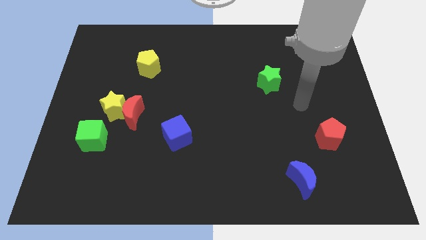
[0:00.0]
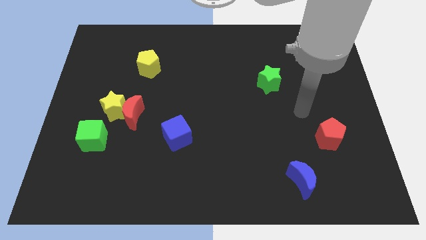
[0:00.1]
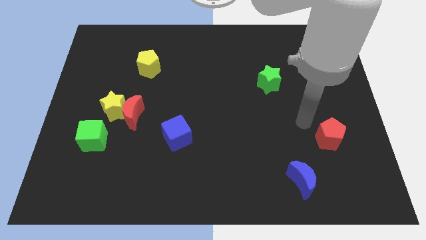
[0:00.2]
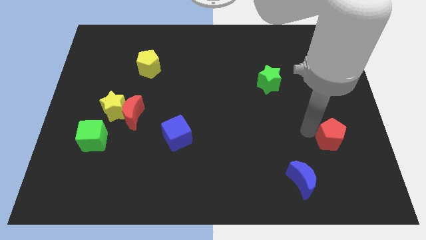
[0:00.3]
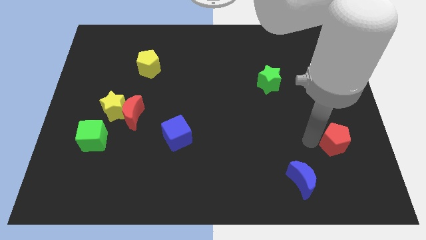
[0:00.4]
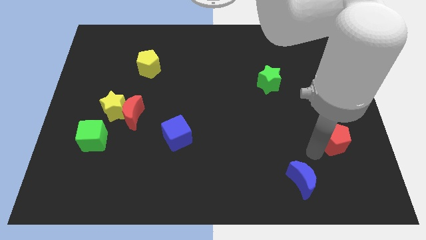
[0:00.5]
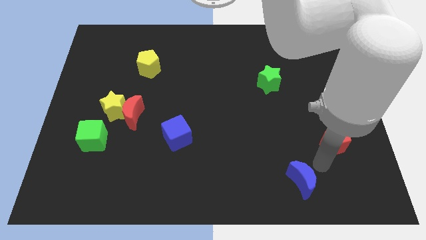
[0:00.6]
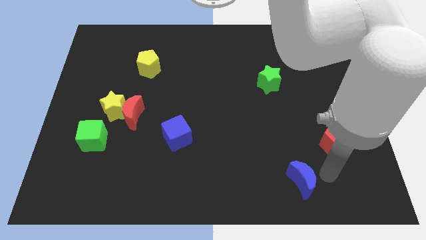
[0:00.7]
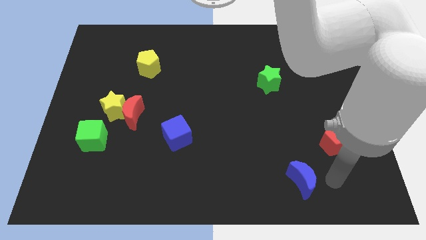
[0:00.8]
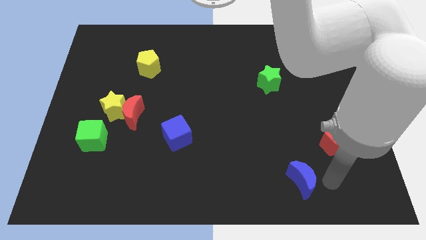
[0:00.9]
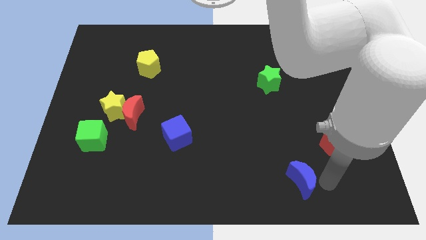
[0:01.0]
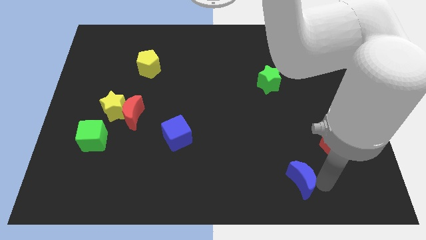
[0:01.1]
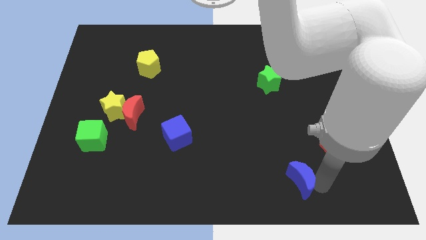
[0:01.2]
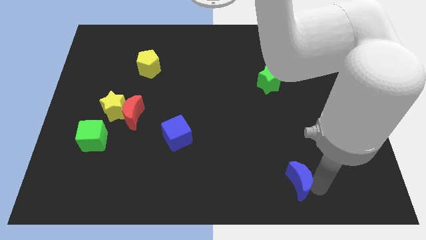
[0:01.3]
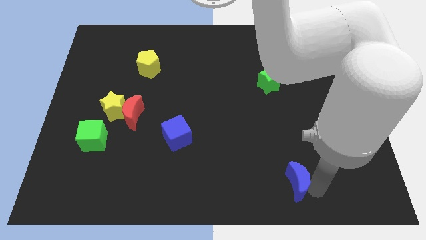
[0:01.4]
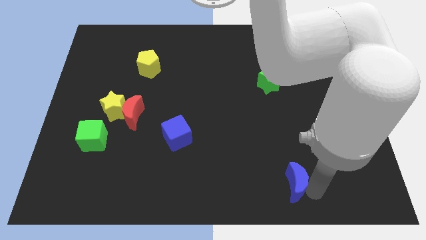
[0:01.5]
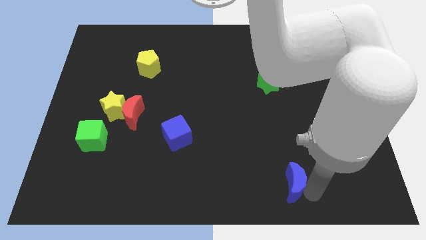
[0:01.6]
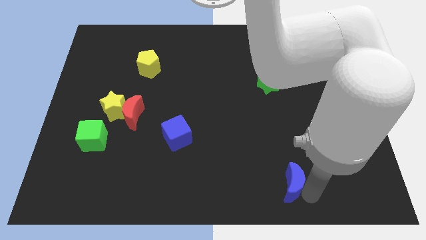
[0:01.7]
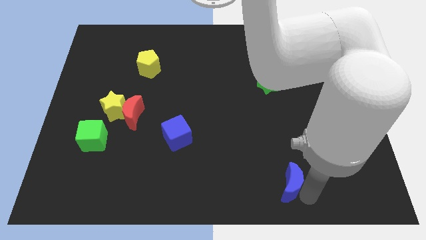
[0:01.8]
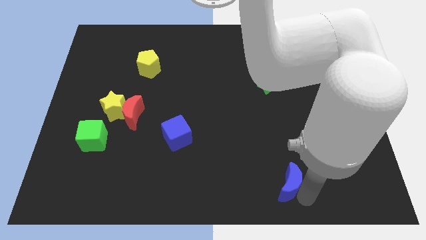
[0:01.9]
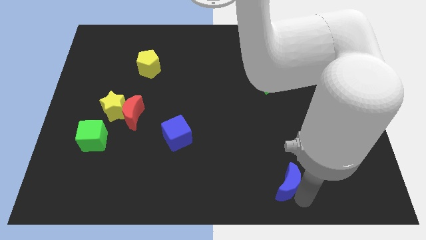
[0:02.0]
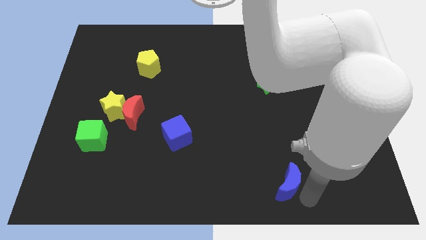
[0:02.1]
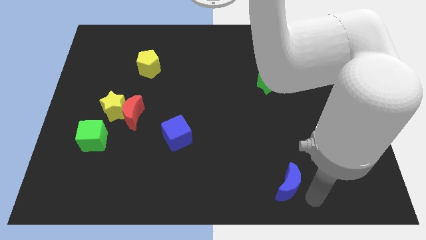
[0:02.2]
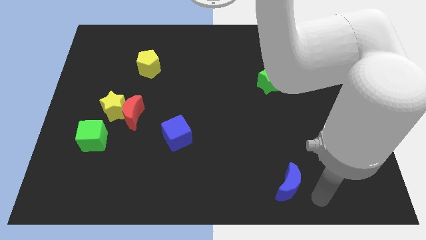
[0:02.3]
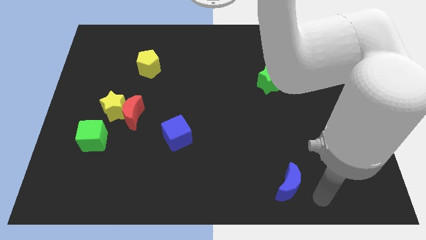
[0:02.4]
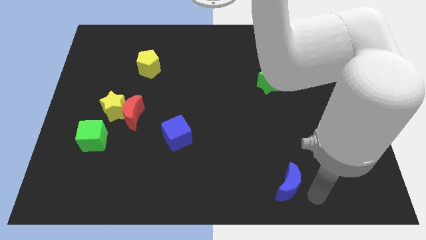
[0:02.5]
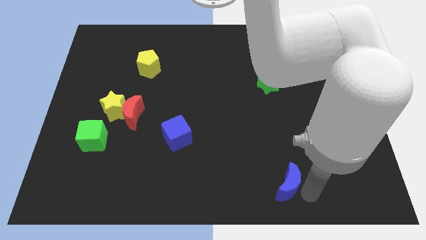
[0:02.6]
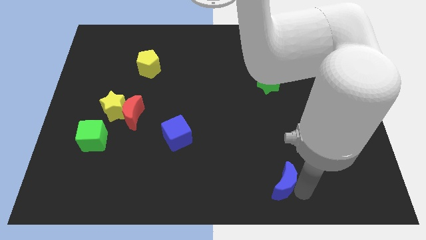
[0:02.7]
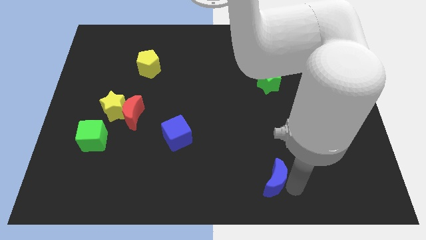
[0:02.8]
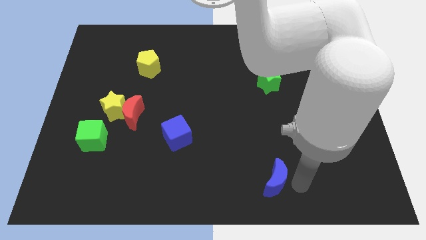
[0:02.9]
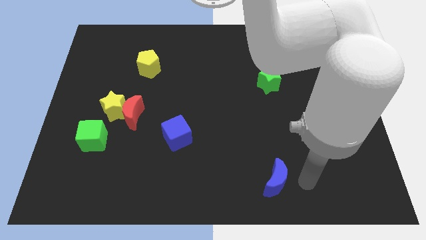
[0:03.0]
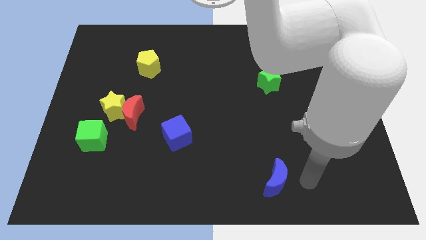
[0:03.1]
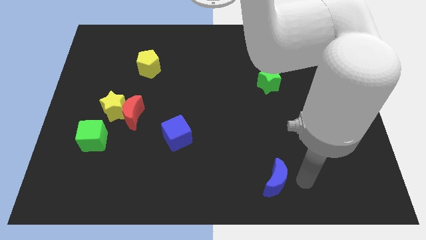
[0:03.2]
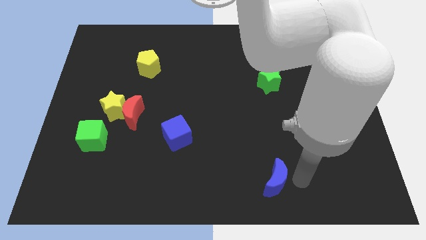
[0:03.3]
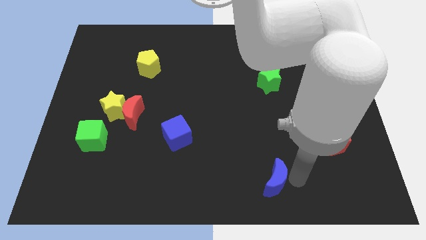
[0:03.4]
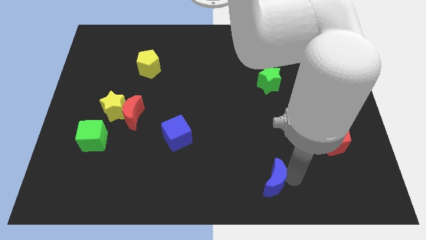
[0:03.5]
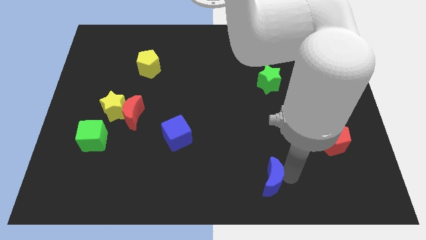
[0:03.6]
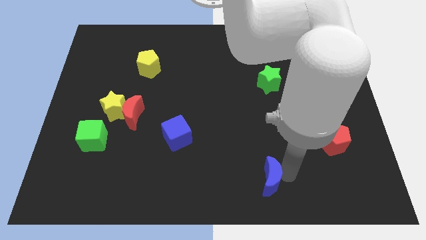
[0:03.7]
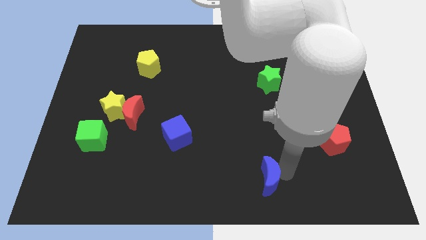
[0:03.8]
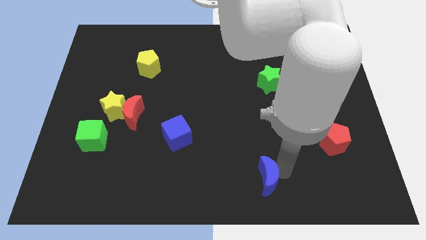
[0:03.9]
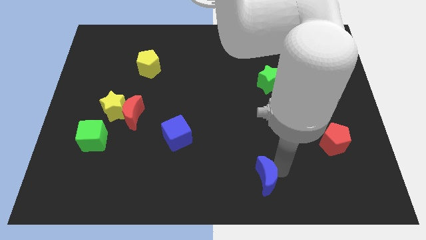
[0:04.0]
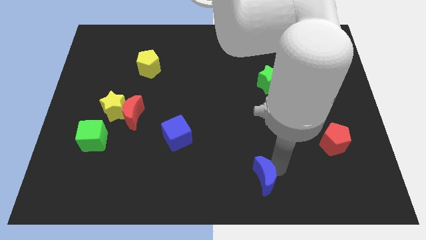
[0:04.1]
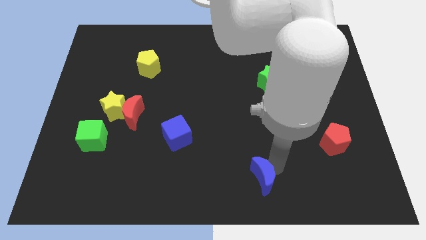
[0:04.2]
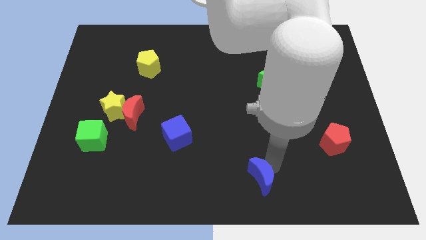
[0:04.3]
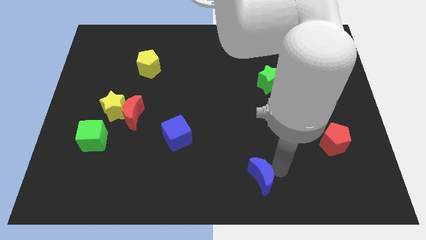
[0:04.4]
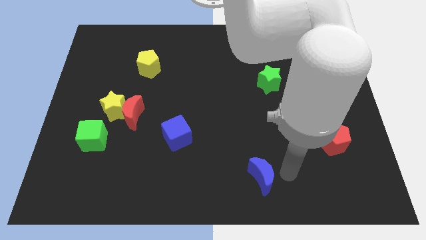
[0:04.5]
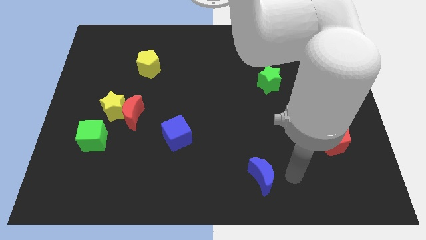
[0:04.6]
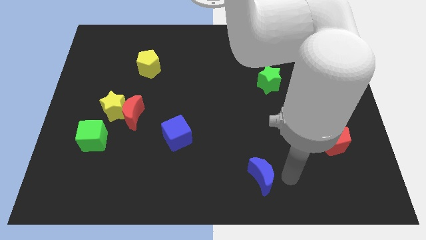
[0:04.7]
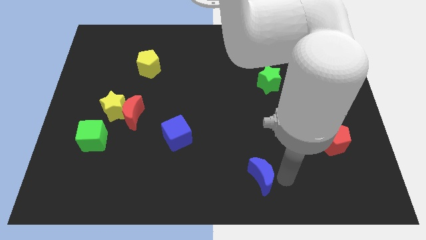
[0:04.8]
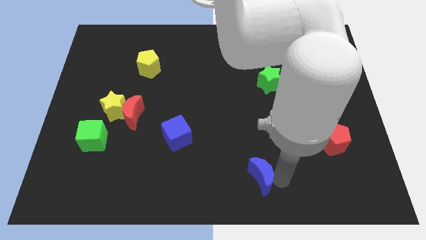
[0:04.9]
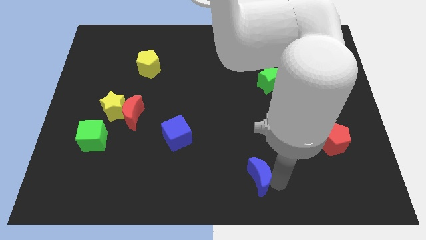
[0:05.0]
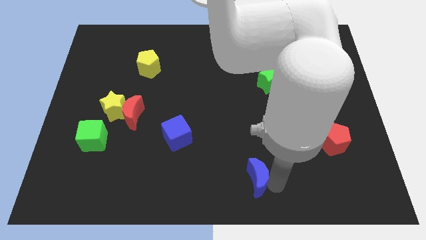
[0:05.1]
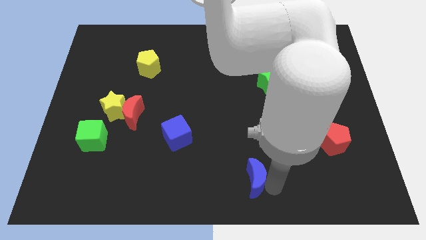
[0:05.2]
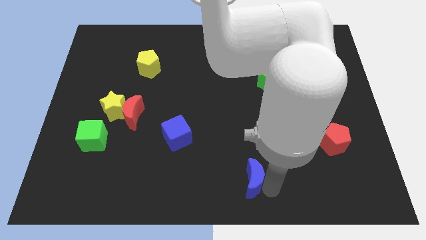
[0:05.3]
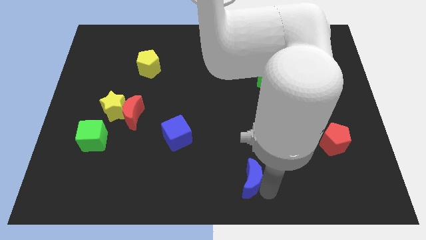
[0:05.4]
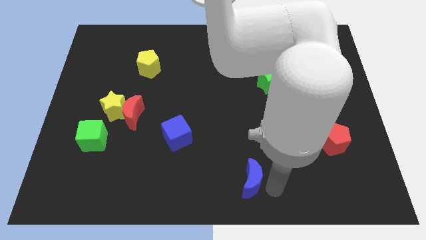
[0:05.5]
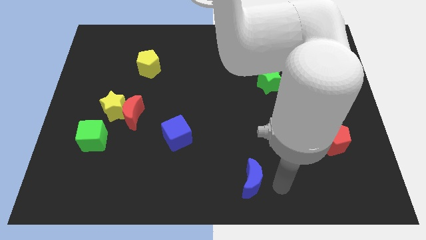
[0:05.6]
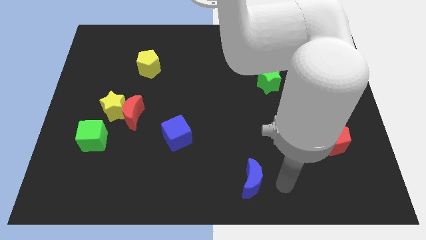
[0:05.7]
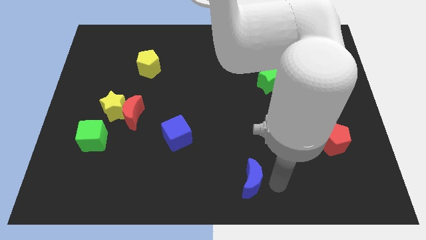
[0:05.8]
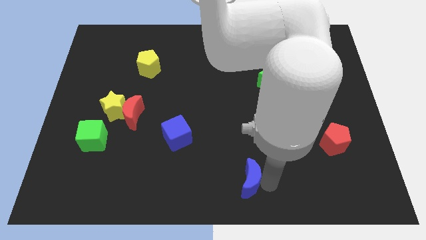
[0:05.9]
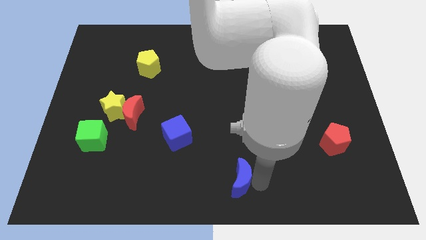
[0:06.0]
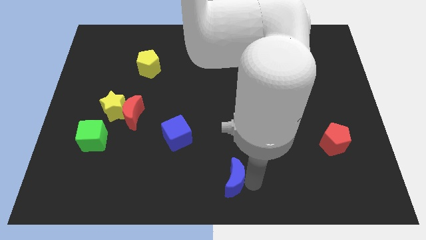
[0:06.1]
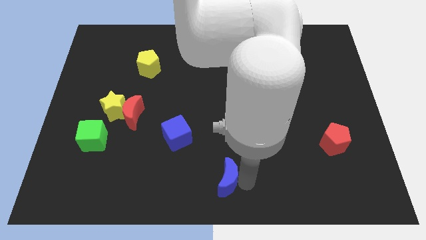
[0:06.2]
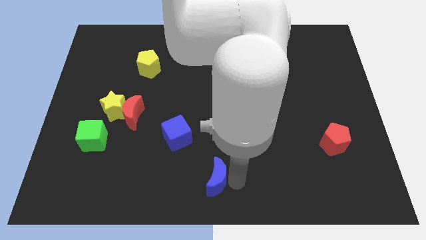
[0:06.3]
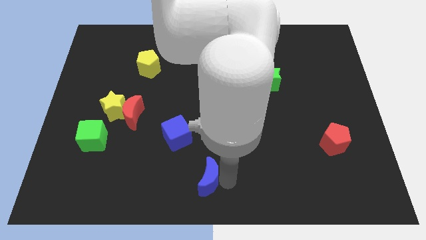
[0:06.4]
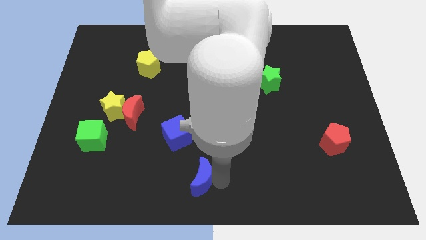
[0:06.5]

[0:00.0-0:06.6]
push the blue moon left

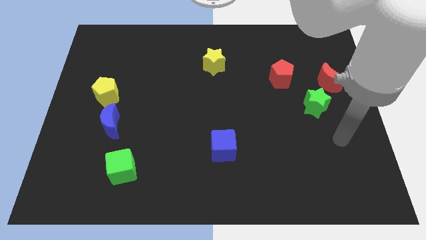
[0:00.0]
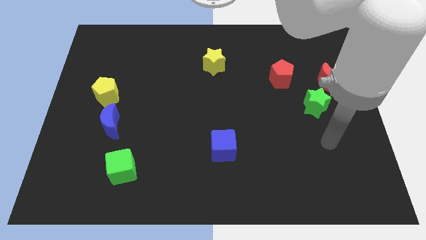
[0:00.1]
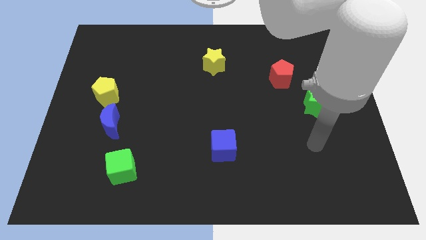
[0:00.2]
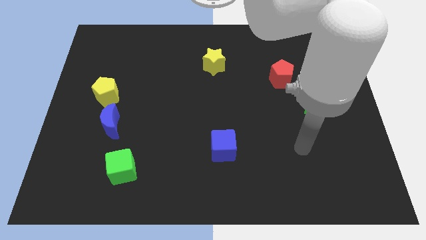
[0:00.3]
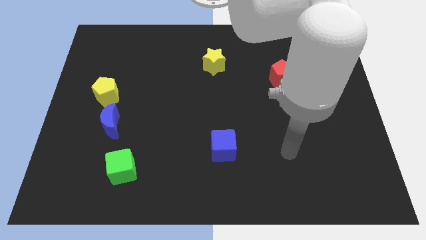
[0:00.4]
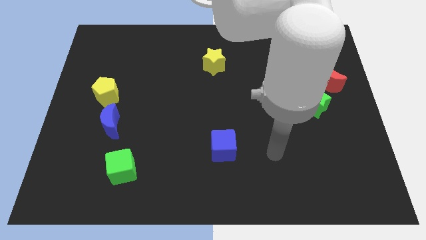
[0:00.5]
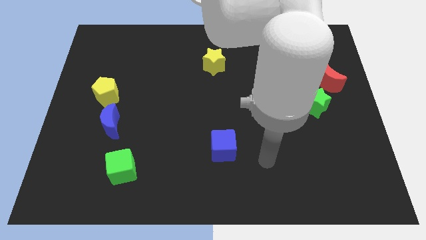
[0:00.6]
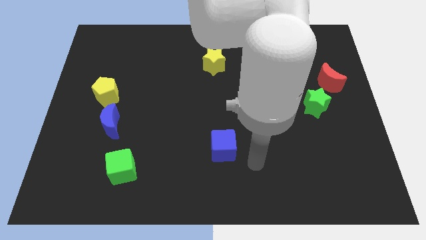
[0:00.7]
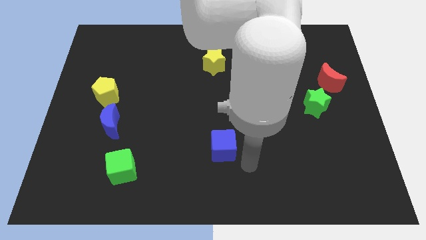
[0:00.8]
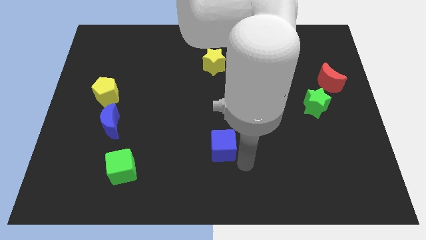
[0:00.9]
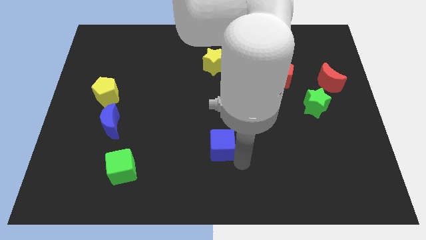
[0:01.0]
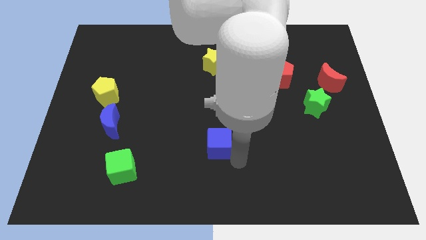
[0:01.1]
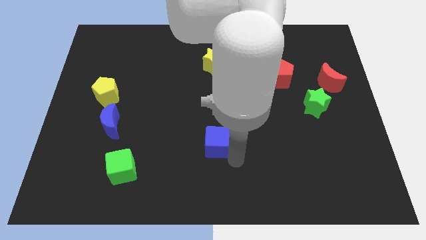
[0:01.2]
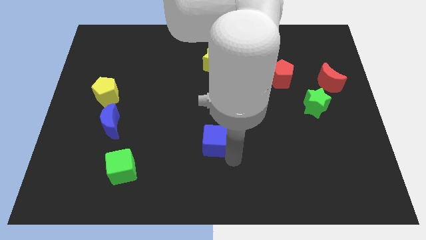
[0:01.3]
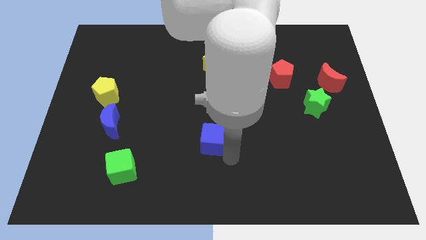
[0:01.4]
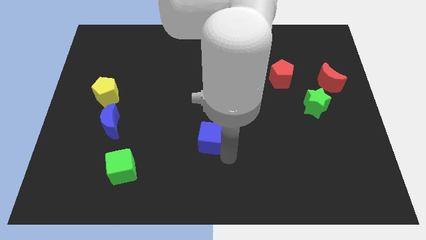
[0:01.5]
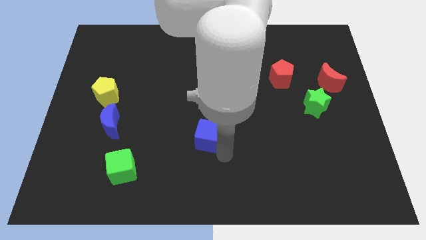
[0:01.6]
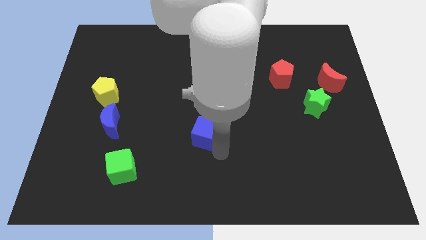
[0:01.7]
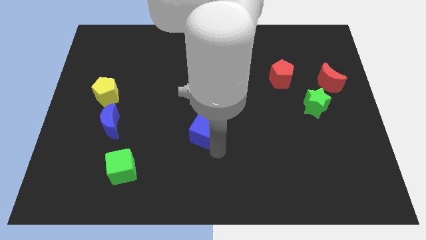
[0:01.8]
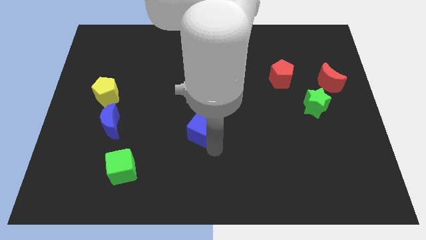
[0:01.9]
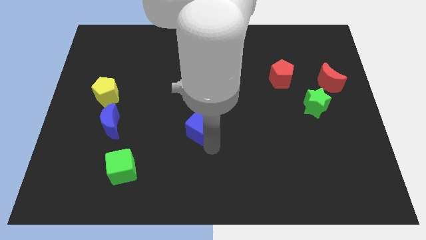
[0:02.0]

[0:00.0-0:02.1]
slide the blue cube diagonally upwards and to the left a little bit
